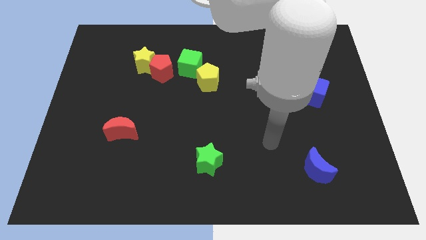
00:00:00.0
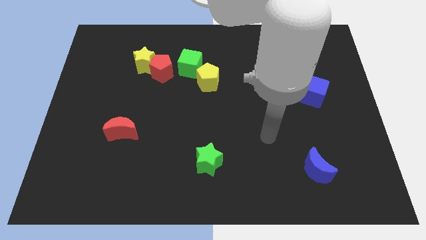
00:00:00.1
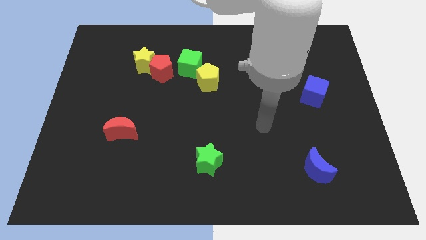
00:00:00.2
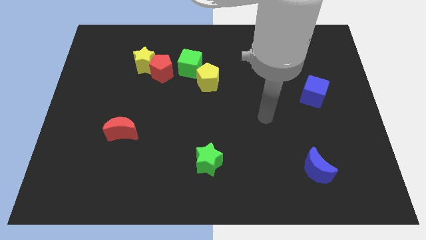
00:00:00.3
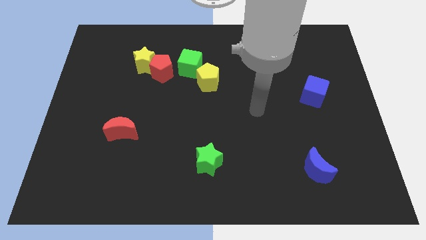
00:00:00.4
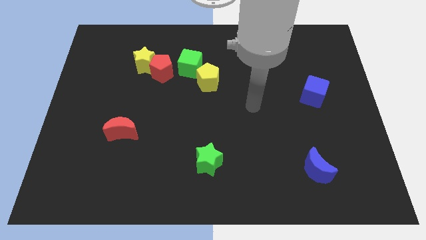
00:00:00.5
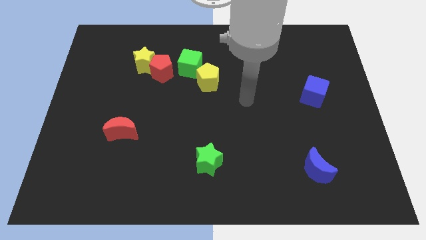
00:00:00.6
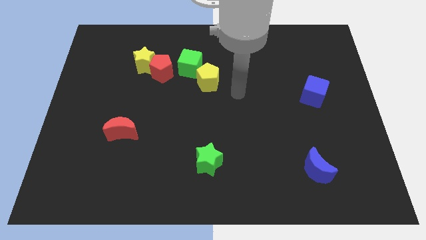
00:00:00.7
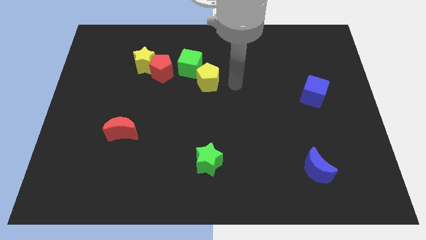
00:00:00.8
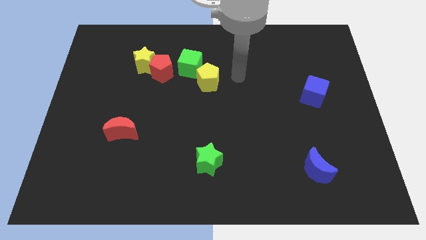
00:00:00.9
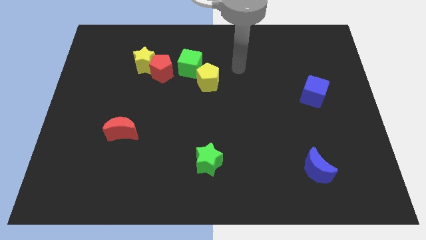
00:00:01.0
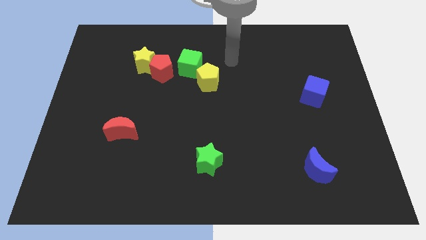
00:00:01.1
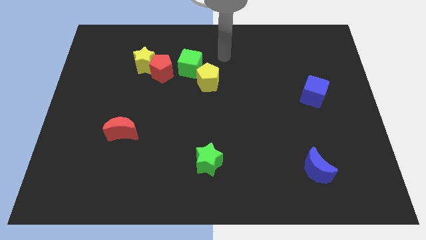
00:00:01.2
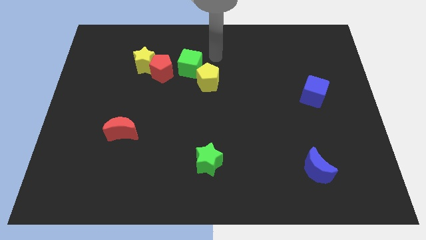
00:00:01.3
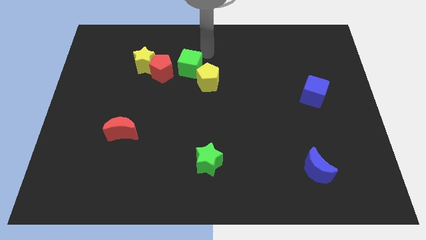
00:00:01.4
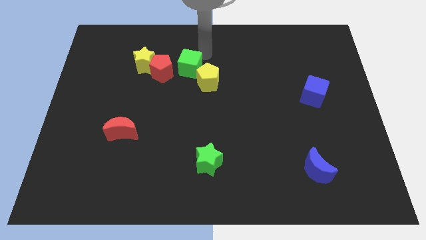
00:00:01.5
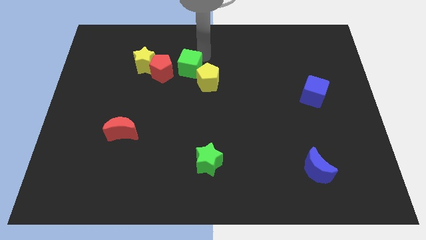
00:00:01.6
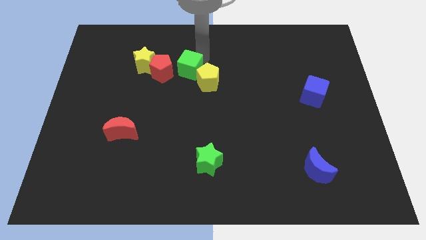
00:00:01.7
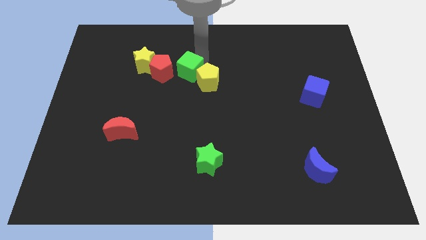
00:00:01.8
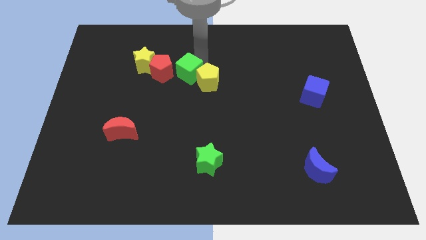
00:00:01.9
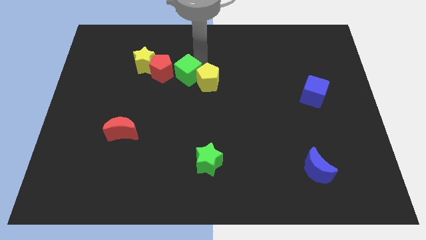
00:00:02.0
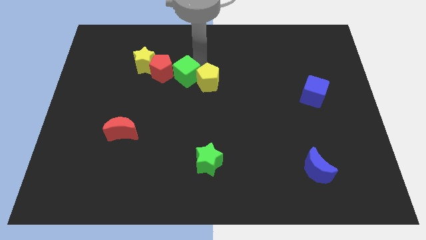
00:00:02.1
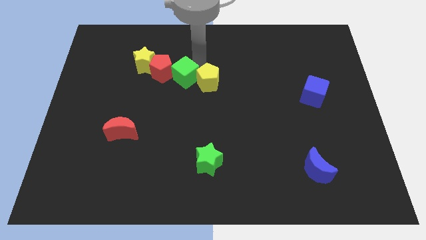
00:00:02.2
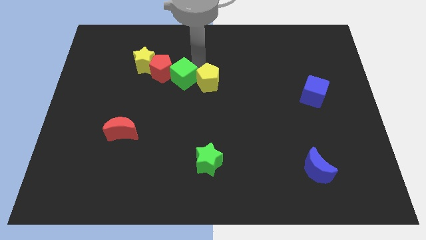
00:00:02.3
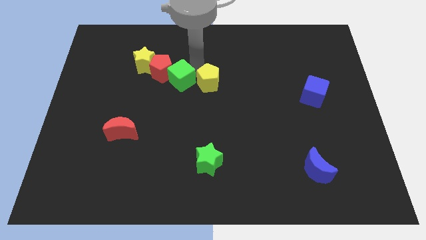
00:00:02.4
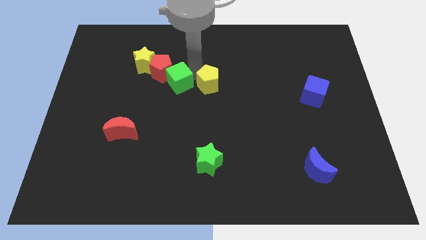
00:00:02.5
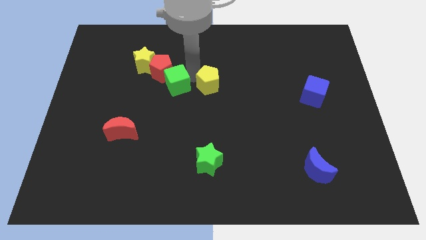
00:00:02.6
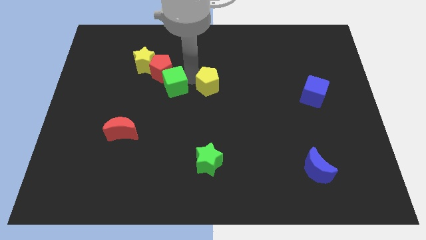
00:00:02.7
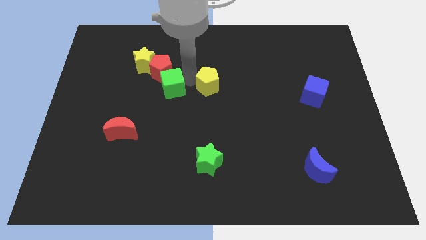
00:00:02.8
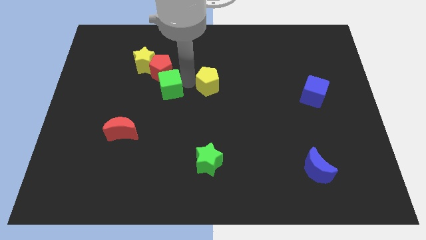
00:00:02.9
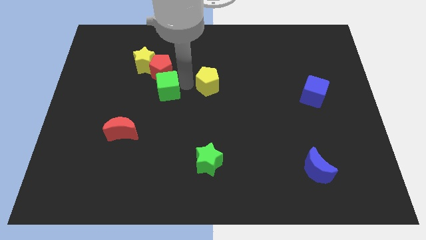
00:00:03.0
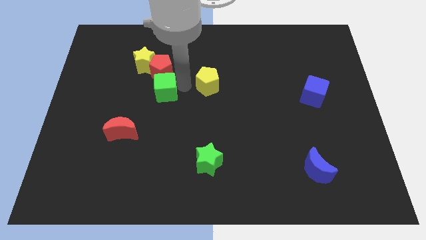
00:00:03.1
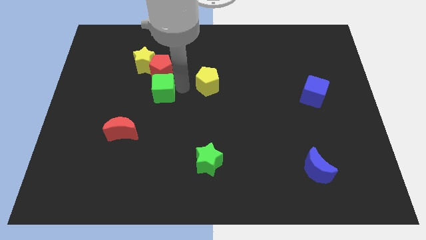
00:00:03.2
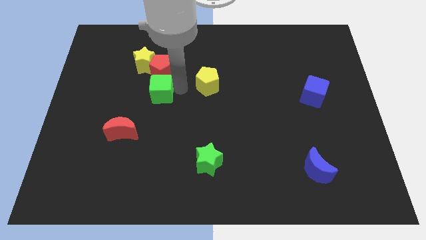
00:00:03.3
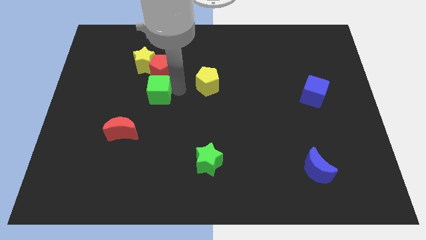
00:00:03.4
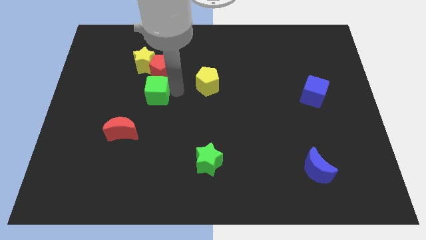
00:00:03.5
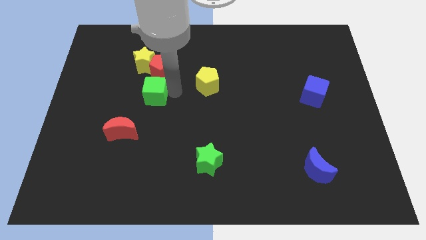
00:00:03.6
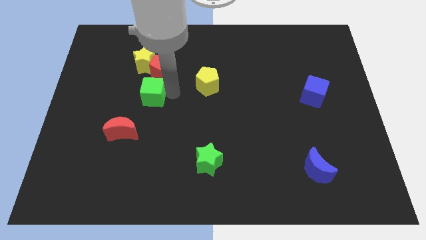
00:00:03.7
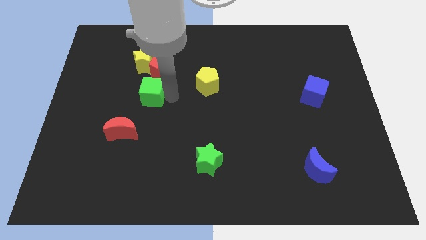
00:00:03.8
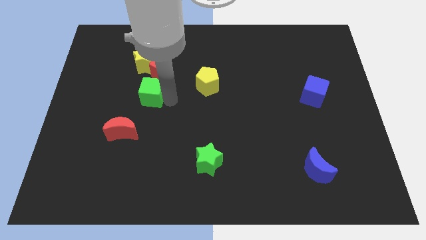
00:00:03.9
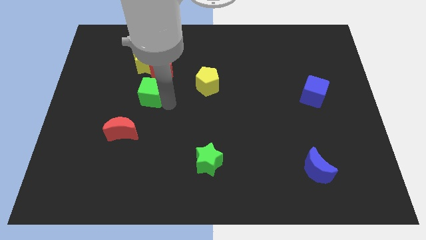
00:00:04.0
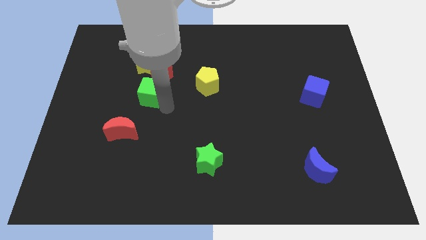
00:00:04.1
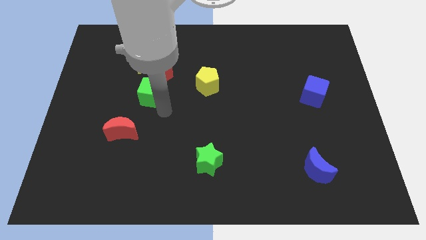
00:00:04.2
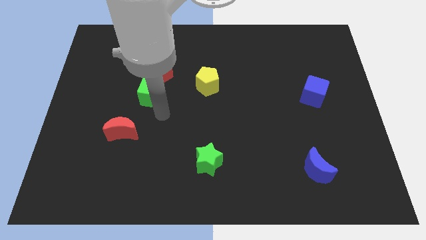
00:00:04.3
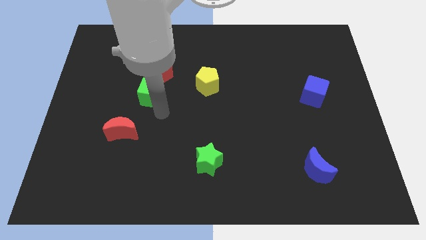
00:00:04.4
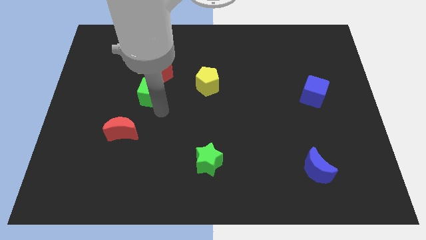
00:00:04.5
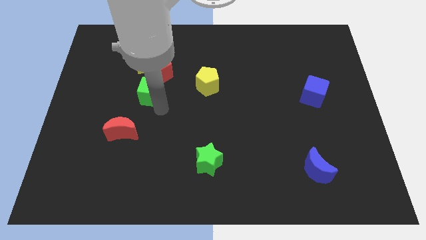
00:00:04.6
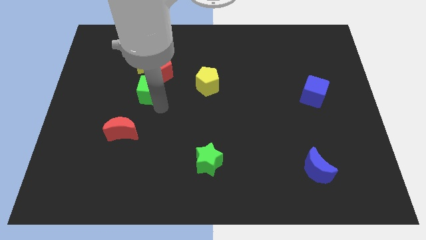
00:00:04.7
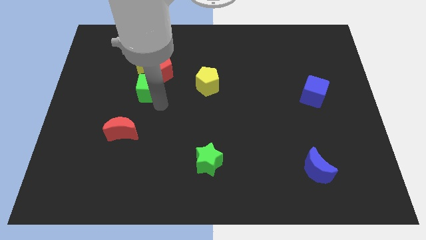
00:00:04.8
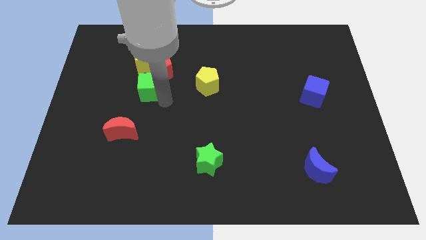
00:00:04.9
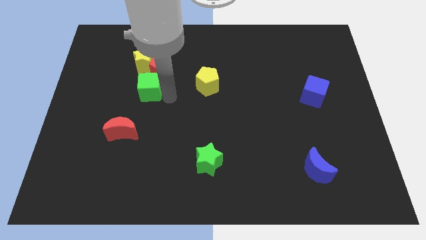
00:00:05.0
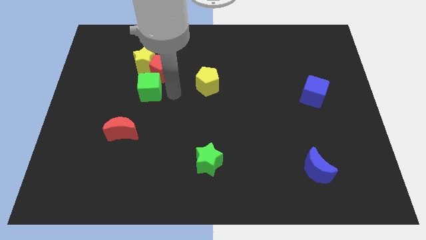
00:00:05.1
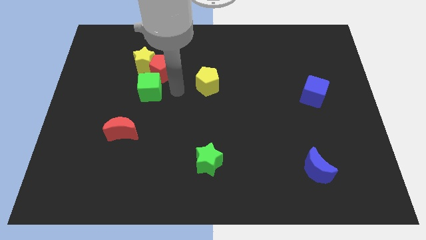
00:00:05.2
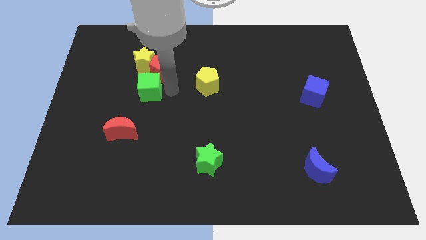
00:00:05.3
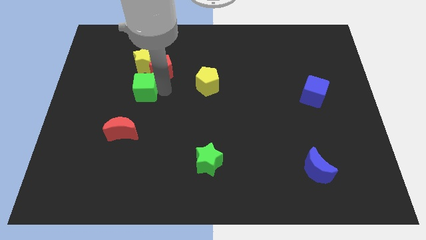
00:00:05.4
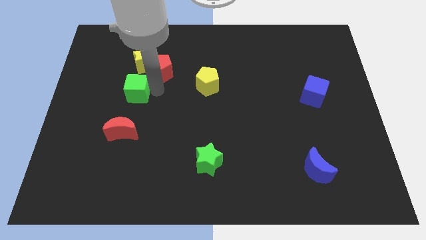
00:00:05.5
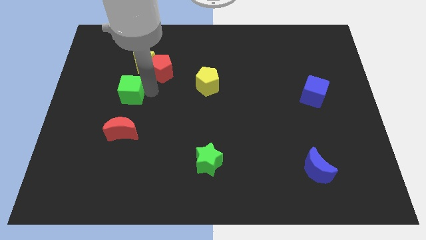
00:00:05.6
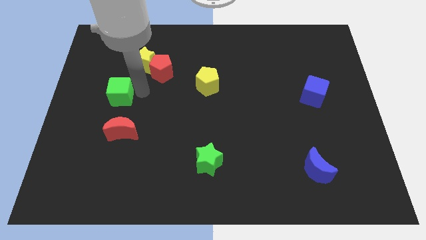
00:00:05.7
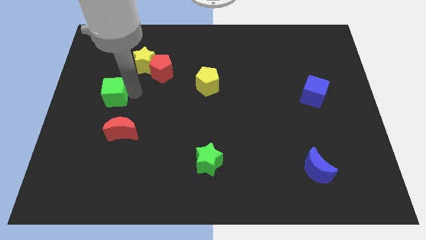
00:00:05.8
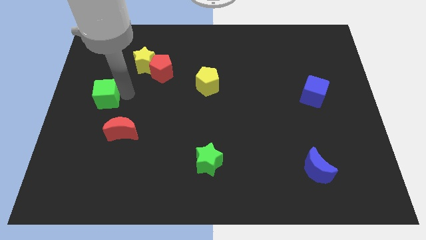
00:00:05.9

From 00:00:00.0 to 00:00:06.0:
move the green cube to the center left

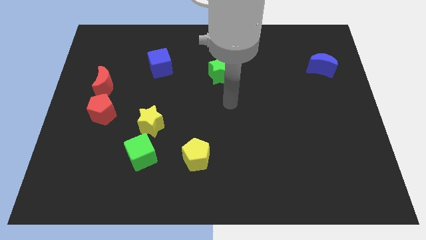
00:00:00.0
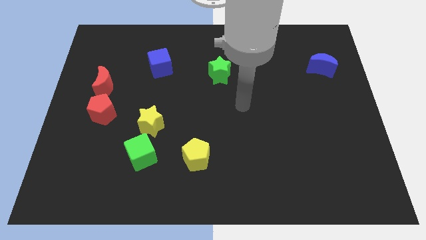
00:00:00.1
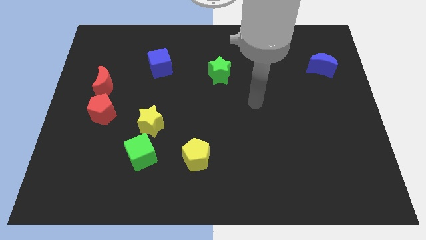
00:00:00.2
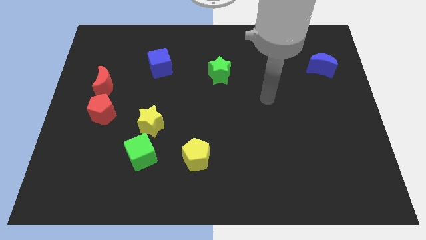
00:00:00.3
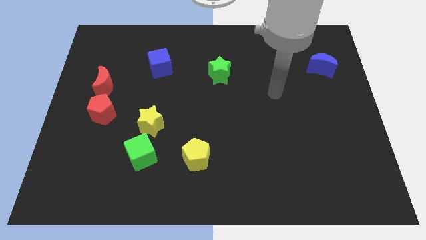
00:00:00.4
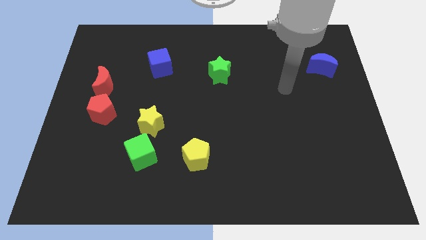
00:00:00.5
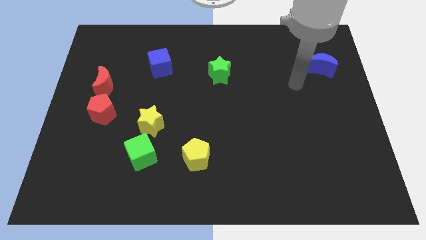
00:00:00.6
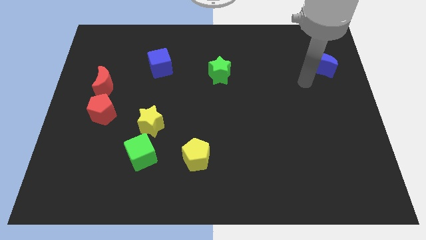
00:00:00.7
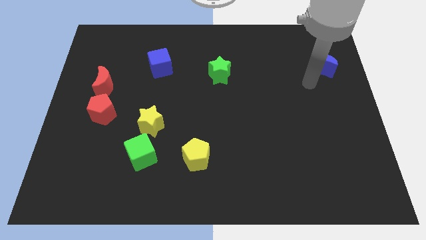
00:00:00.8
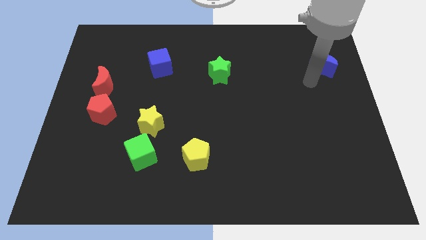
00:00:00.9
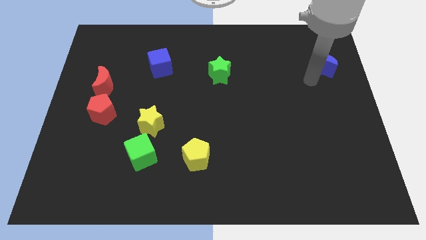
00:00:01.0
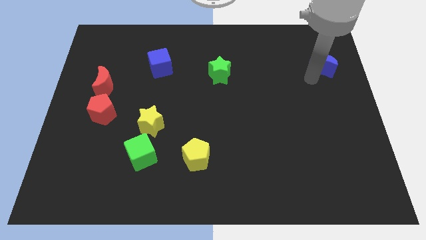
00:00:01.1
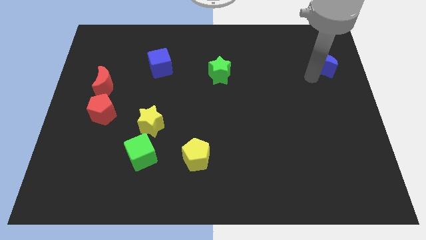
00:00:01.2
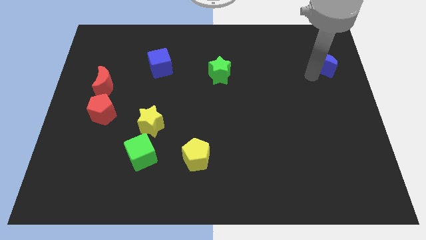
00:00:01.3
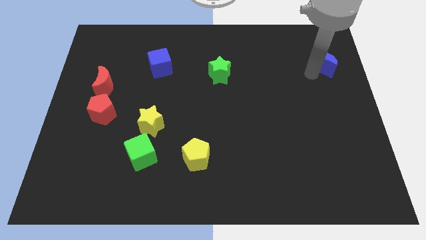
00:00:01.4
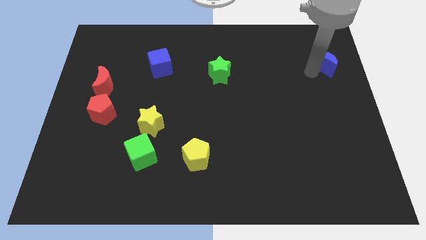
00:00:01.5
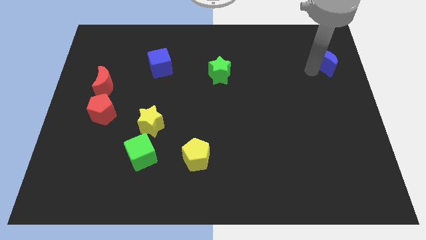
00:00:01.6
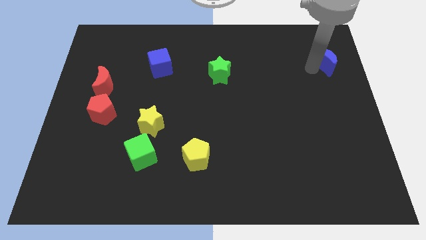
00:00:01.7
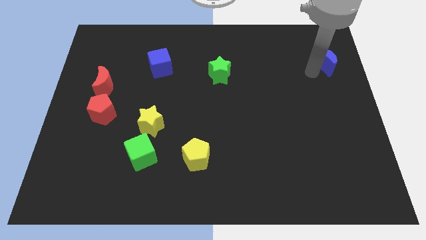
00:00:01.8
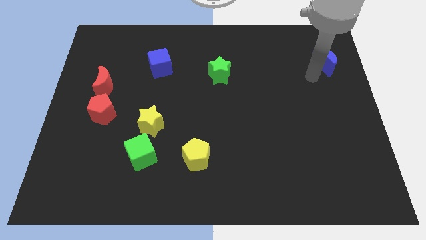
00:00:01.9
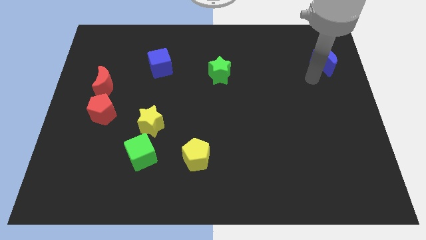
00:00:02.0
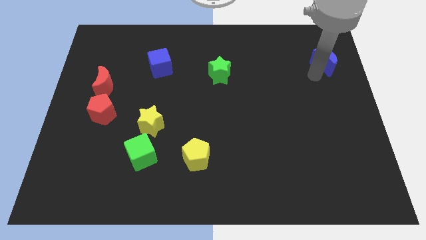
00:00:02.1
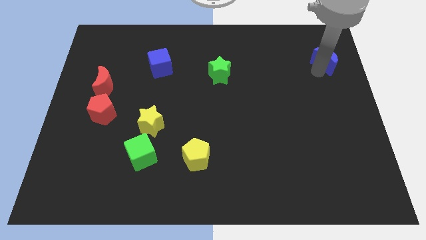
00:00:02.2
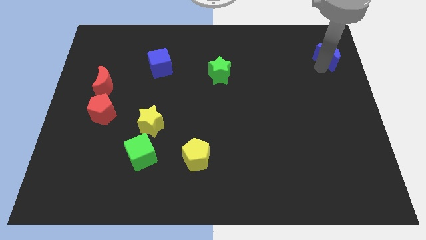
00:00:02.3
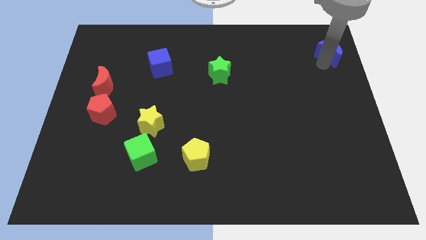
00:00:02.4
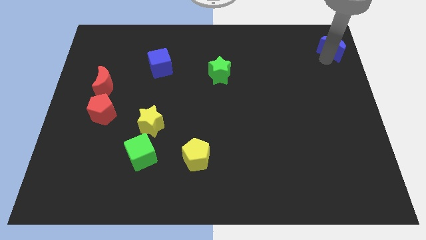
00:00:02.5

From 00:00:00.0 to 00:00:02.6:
put the blue moon to the top right corner
